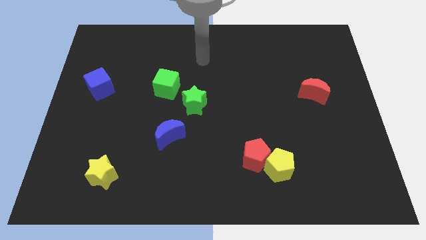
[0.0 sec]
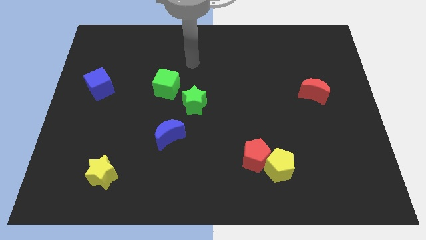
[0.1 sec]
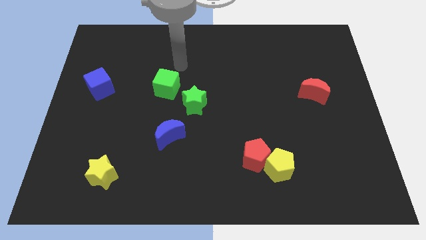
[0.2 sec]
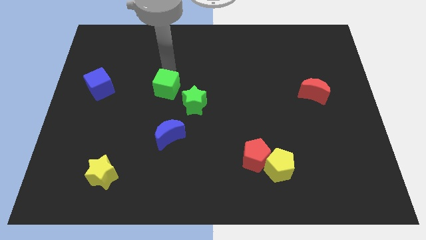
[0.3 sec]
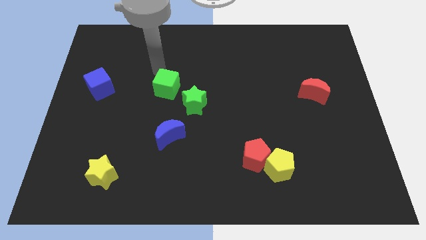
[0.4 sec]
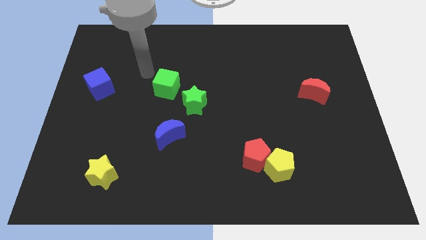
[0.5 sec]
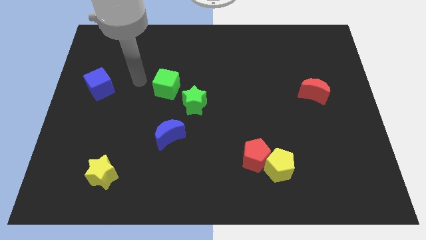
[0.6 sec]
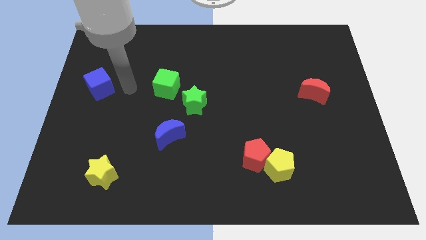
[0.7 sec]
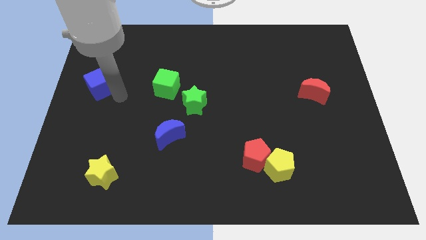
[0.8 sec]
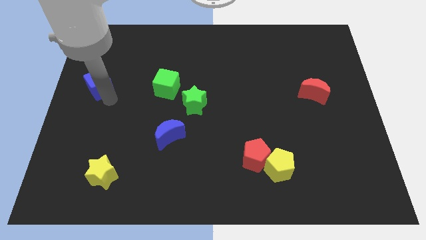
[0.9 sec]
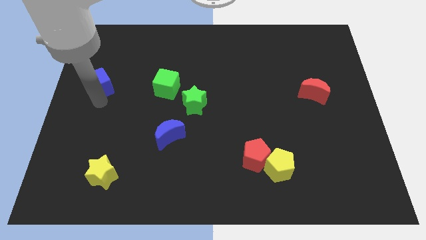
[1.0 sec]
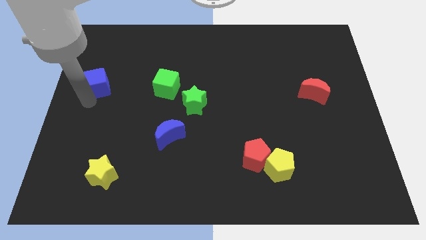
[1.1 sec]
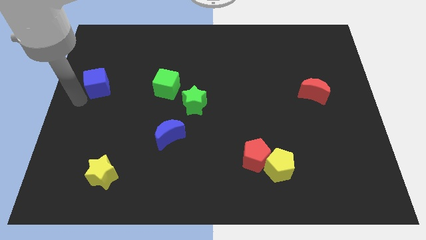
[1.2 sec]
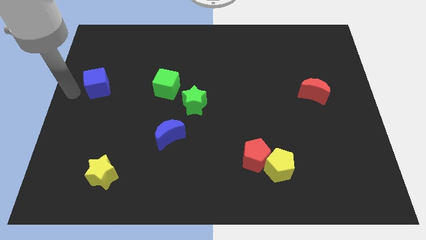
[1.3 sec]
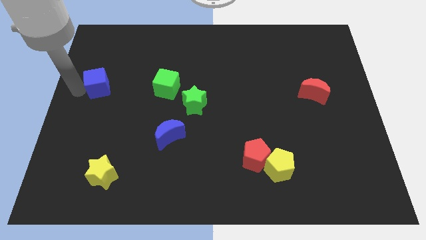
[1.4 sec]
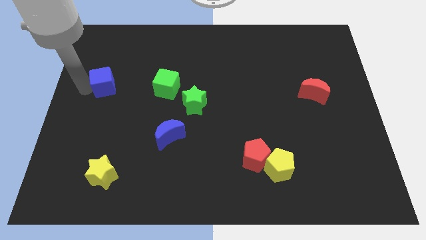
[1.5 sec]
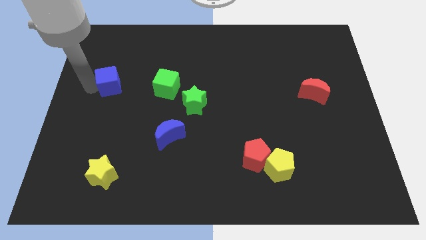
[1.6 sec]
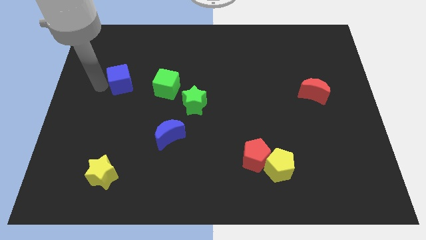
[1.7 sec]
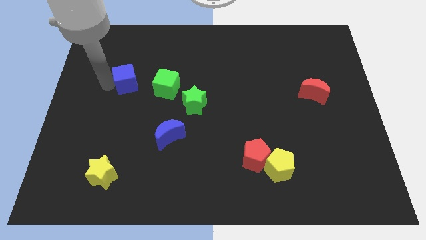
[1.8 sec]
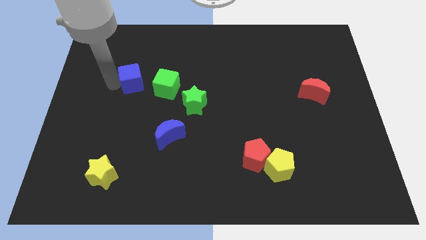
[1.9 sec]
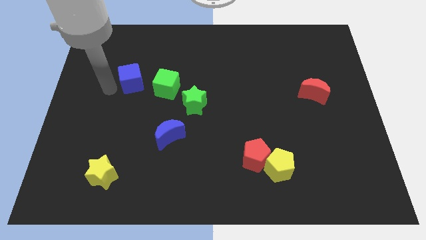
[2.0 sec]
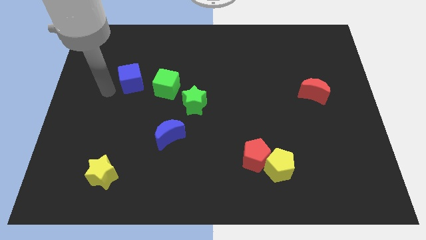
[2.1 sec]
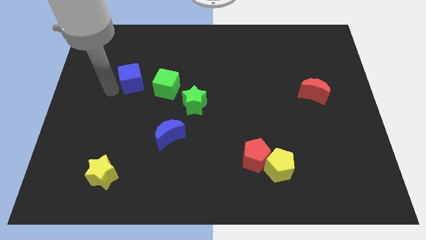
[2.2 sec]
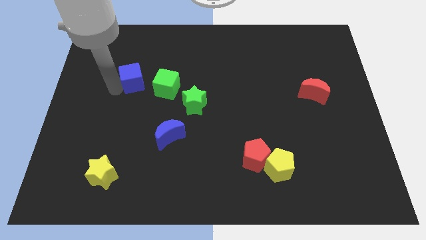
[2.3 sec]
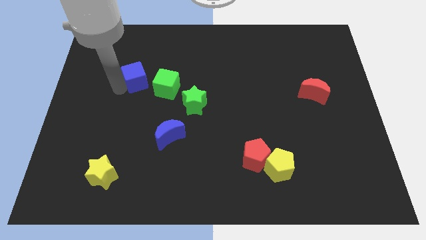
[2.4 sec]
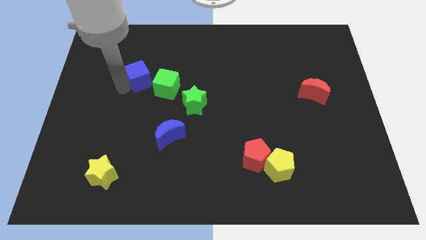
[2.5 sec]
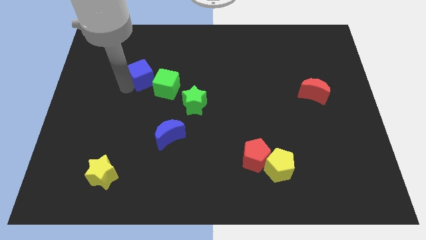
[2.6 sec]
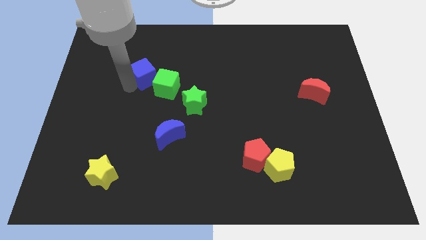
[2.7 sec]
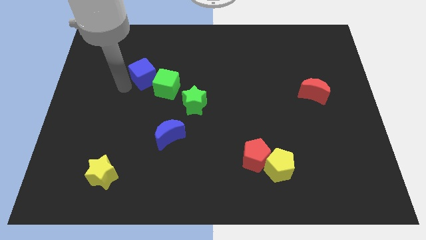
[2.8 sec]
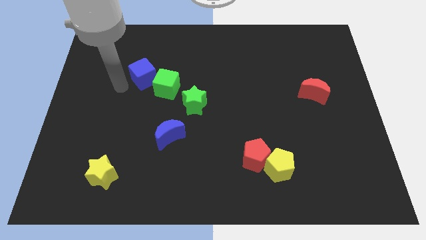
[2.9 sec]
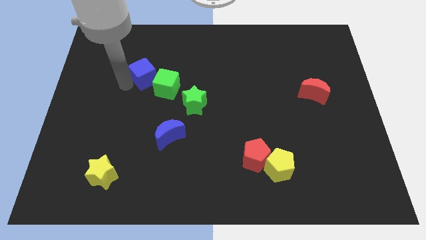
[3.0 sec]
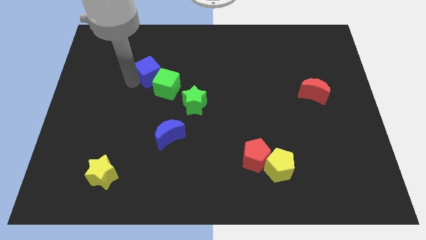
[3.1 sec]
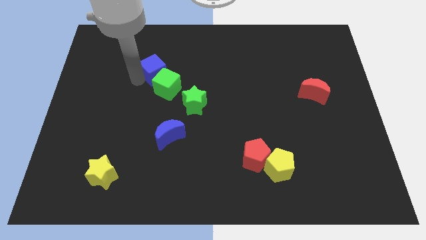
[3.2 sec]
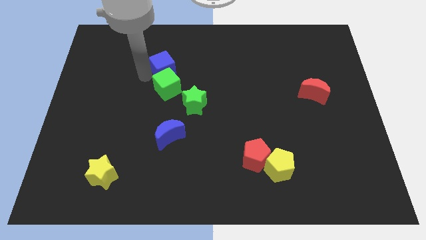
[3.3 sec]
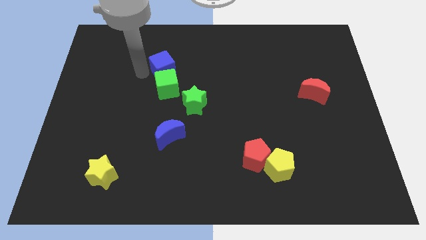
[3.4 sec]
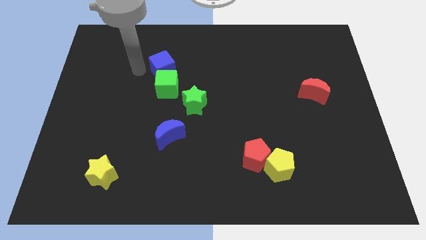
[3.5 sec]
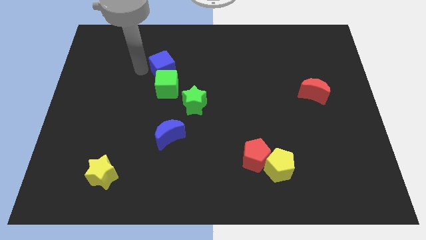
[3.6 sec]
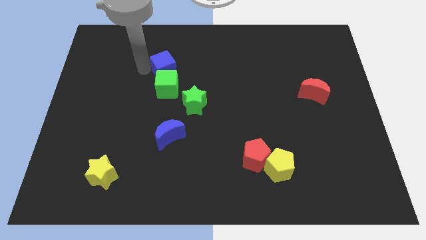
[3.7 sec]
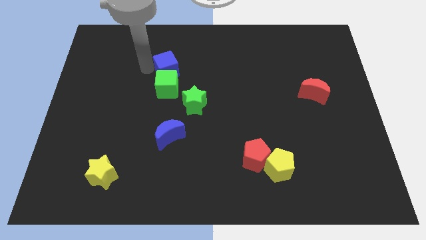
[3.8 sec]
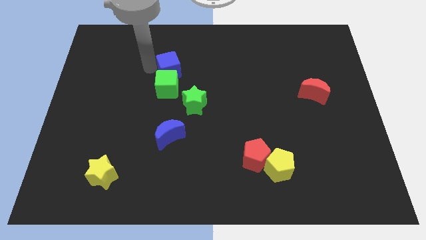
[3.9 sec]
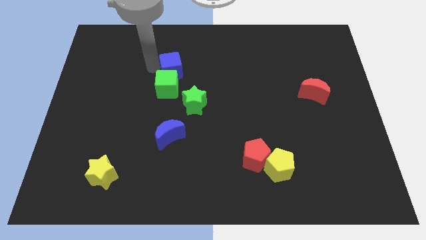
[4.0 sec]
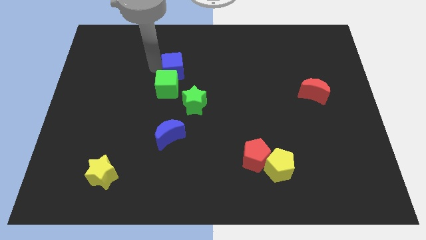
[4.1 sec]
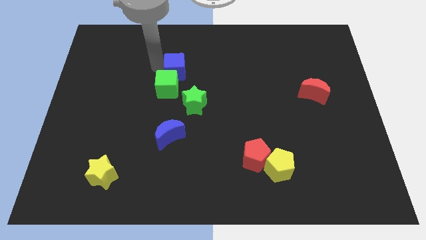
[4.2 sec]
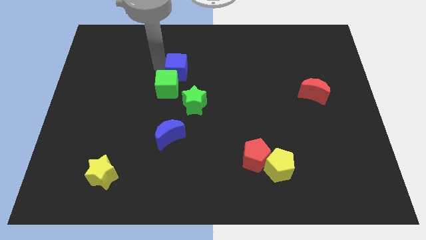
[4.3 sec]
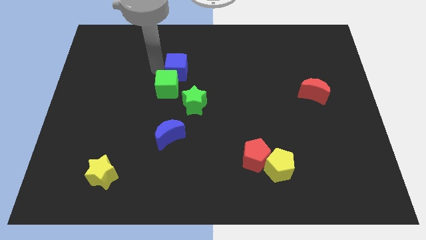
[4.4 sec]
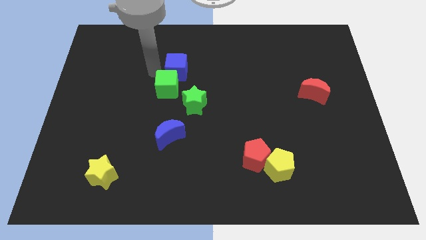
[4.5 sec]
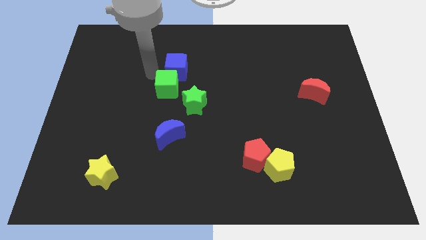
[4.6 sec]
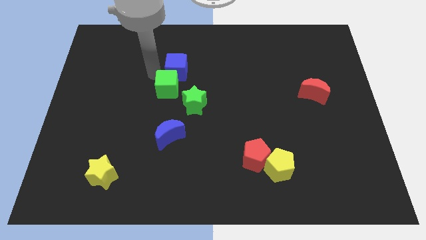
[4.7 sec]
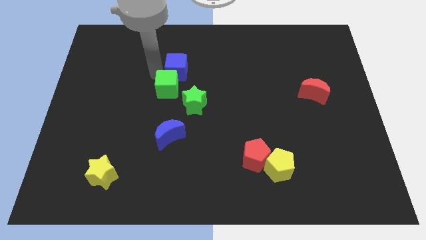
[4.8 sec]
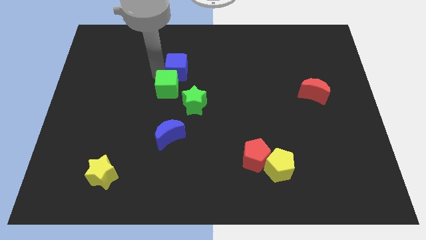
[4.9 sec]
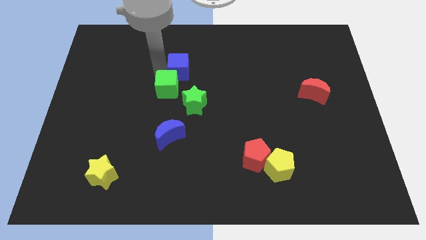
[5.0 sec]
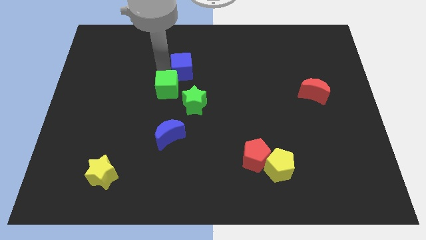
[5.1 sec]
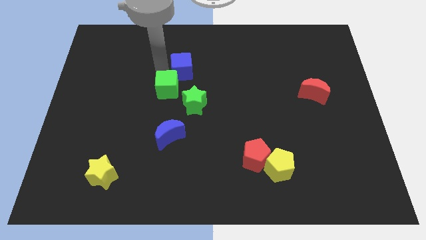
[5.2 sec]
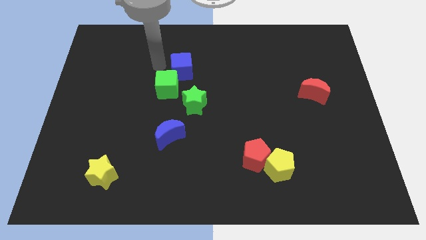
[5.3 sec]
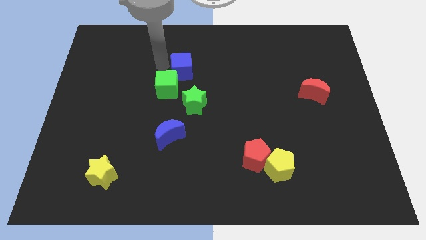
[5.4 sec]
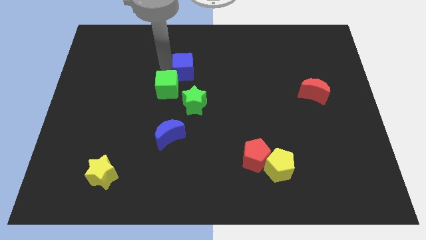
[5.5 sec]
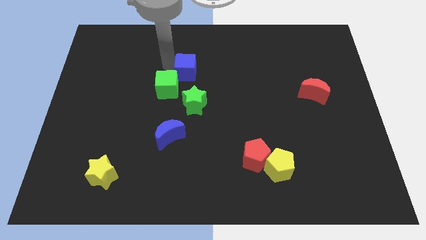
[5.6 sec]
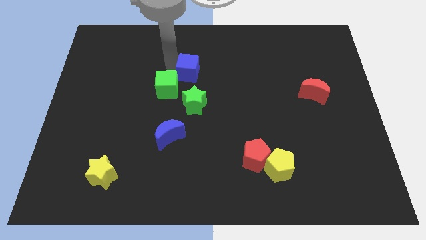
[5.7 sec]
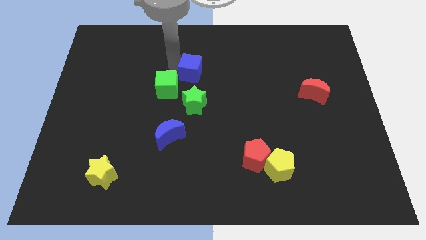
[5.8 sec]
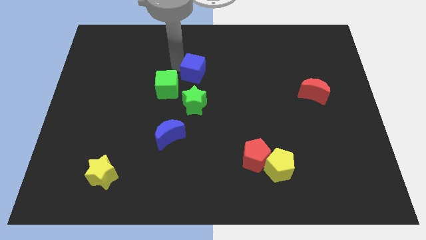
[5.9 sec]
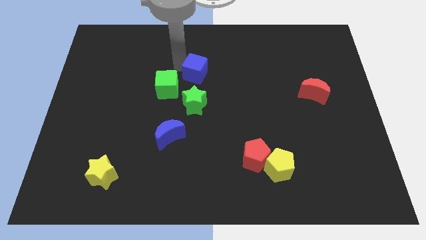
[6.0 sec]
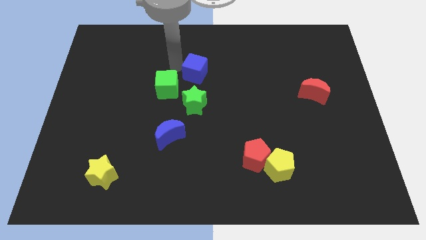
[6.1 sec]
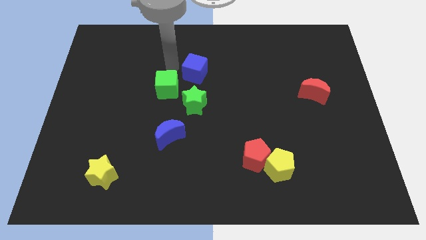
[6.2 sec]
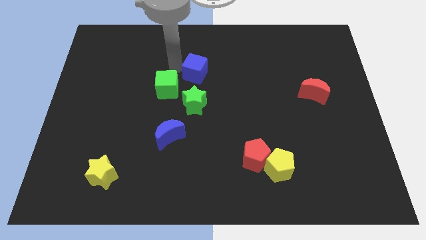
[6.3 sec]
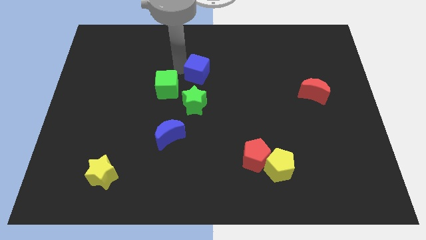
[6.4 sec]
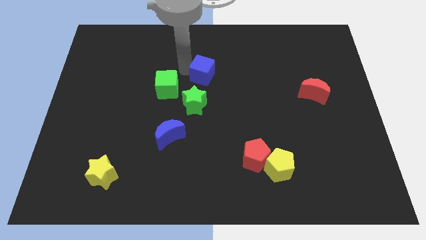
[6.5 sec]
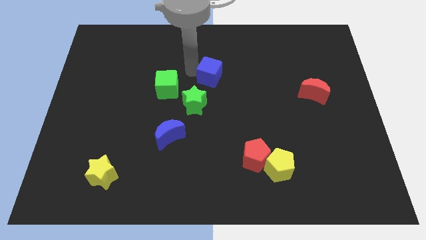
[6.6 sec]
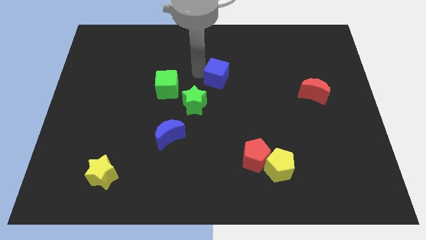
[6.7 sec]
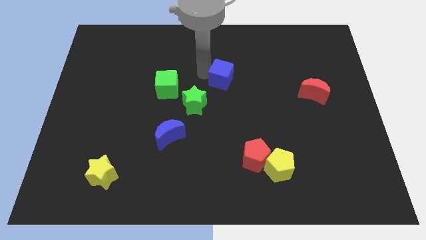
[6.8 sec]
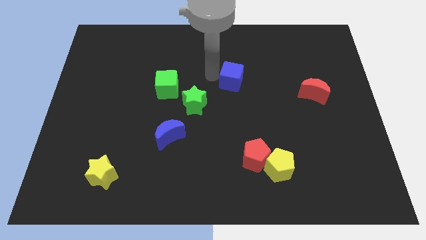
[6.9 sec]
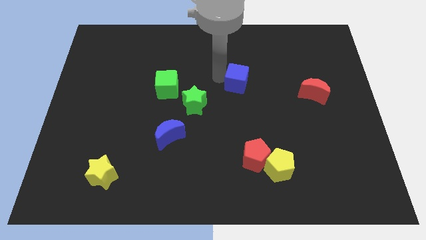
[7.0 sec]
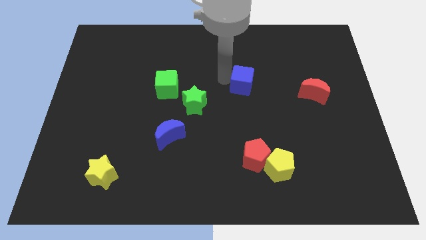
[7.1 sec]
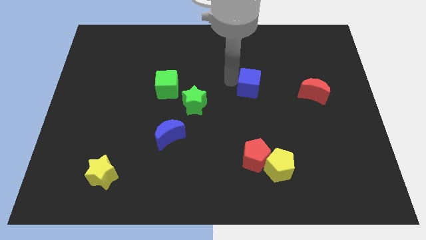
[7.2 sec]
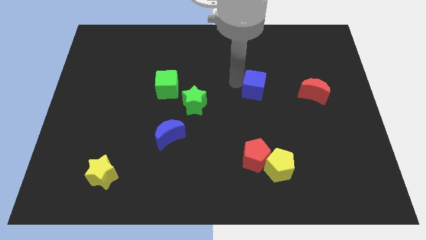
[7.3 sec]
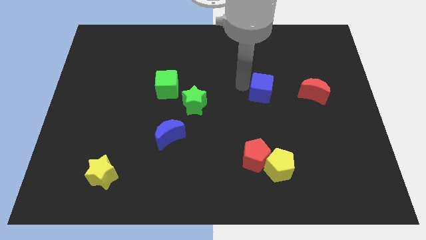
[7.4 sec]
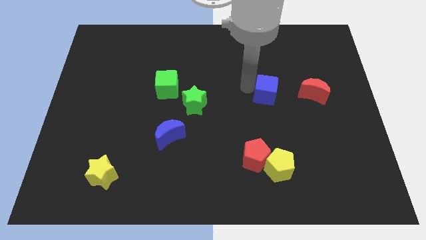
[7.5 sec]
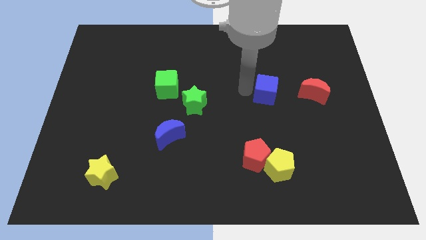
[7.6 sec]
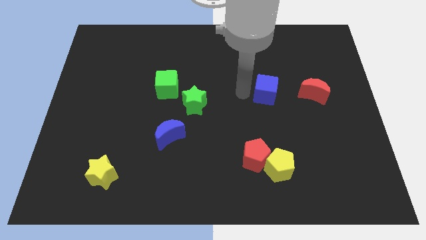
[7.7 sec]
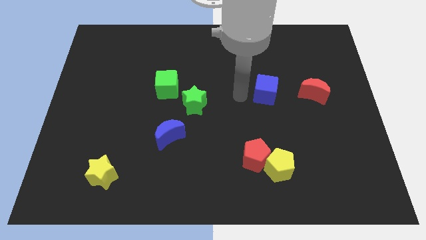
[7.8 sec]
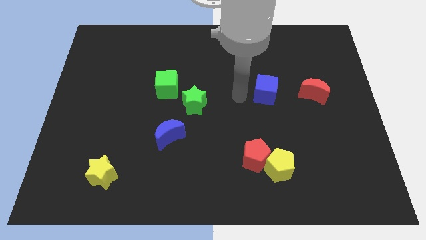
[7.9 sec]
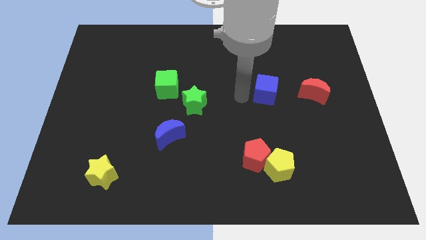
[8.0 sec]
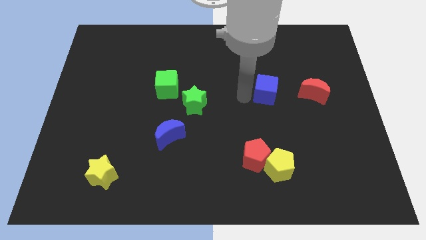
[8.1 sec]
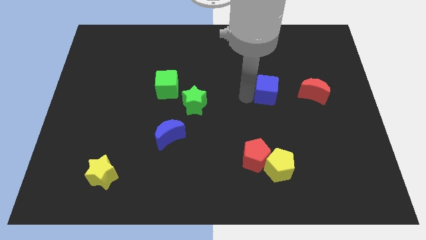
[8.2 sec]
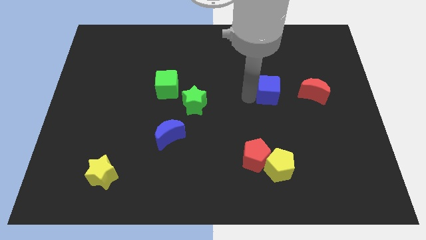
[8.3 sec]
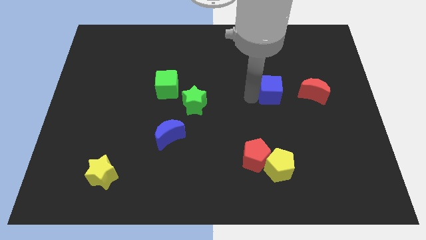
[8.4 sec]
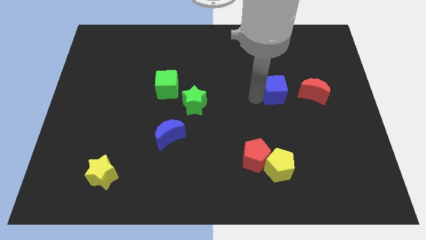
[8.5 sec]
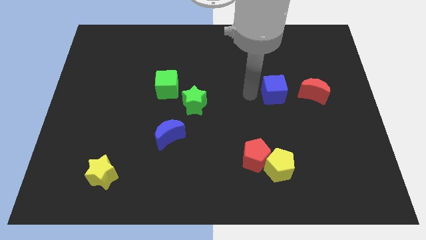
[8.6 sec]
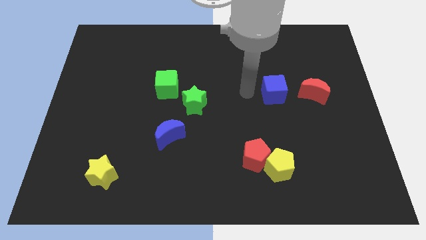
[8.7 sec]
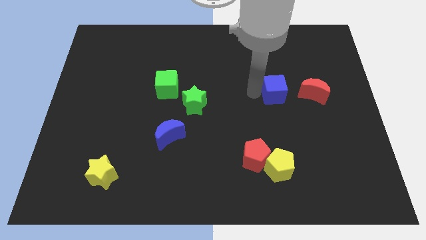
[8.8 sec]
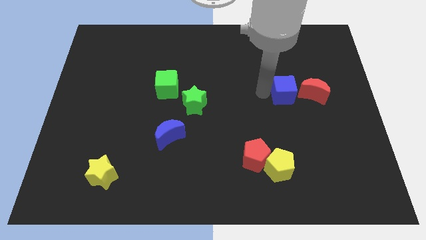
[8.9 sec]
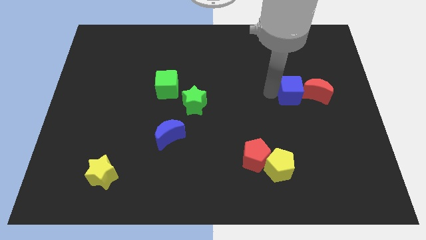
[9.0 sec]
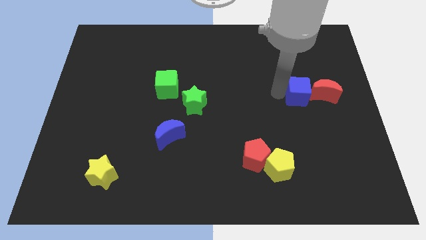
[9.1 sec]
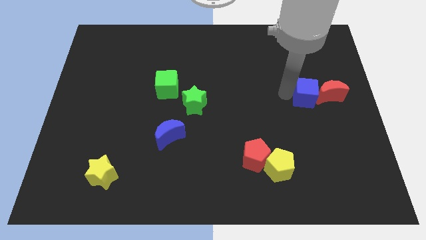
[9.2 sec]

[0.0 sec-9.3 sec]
push the blue cube close to the red moon
